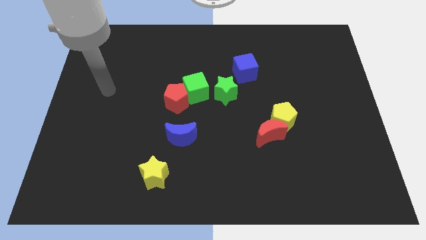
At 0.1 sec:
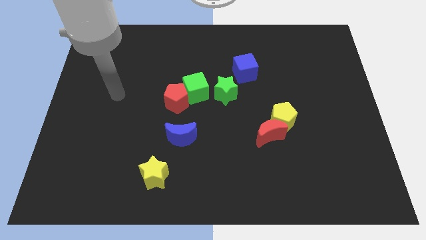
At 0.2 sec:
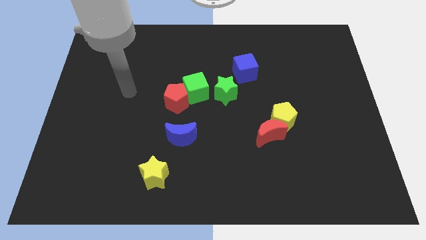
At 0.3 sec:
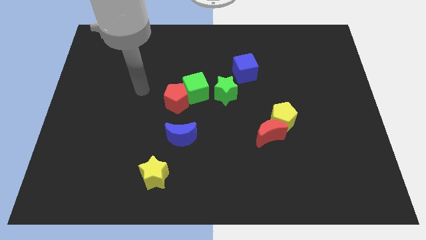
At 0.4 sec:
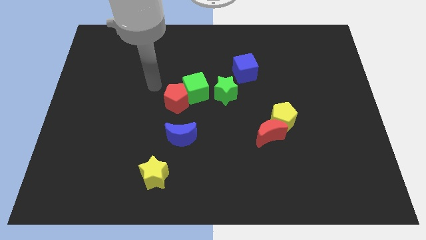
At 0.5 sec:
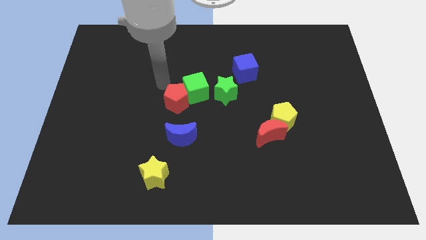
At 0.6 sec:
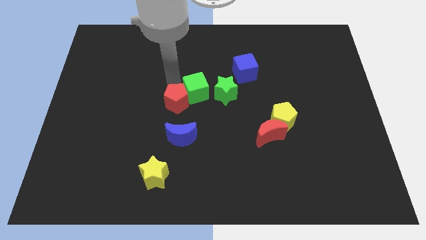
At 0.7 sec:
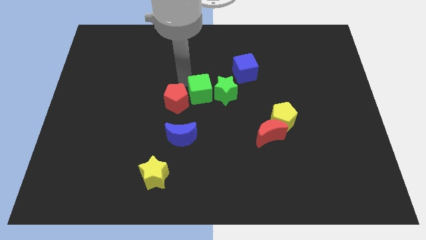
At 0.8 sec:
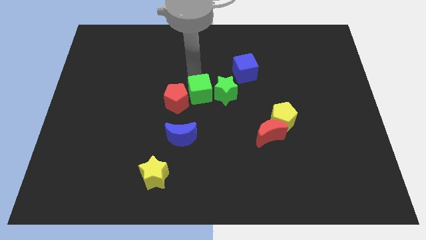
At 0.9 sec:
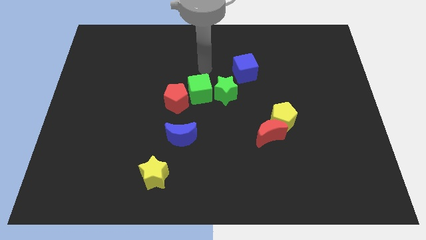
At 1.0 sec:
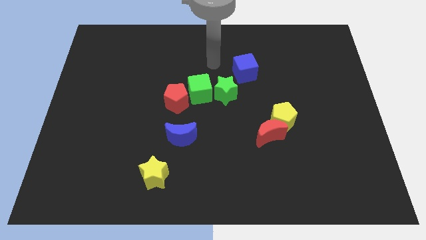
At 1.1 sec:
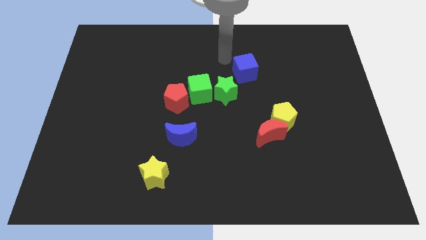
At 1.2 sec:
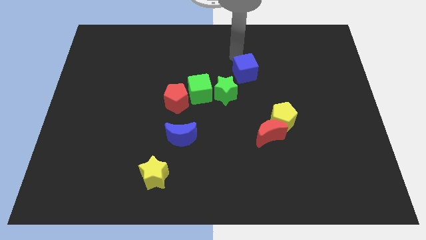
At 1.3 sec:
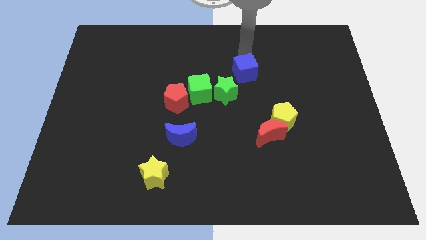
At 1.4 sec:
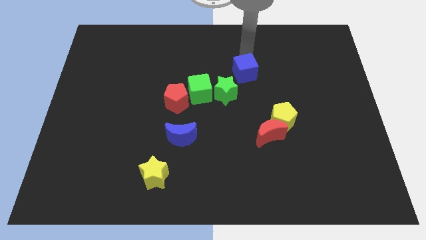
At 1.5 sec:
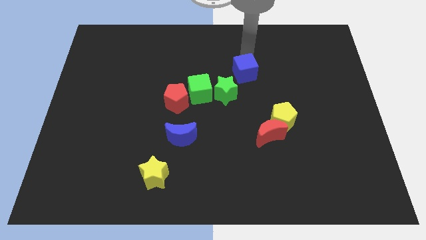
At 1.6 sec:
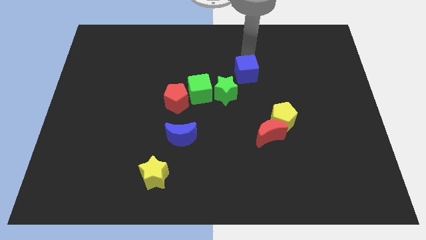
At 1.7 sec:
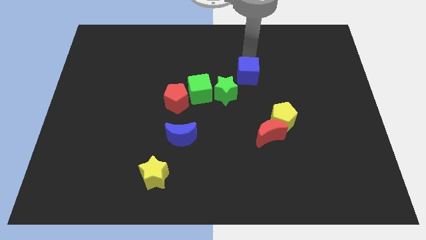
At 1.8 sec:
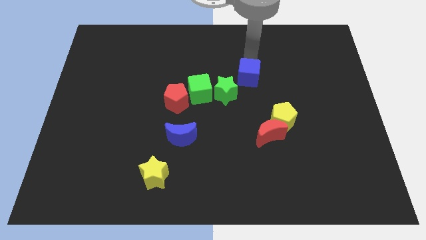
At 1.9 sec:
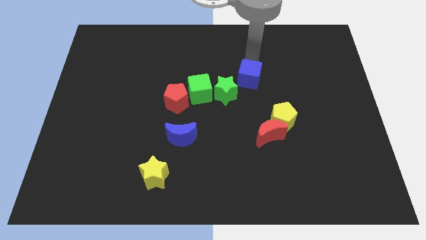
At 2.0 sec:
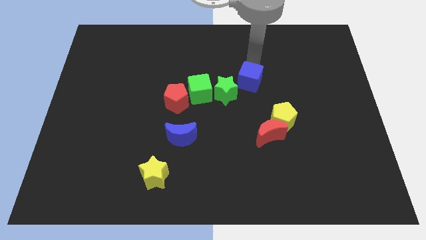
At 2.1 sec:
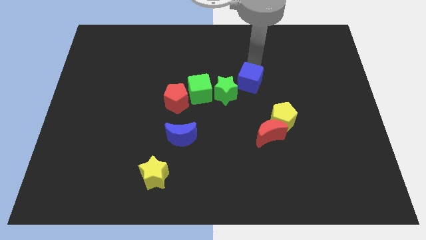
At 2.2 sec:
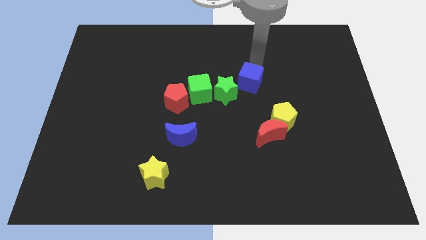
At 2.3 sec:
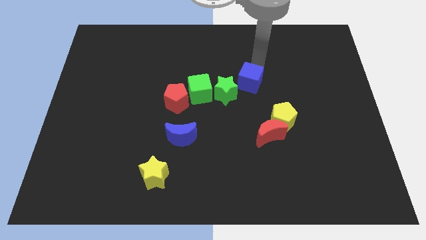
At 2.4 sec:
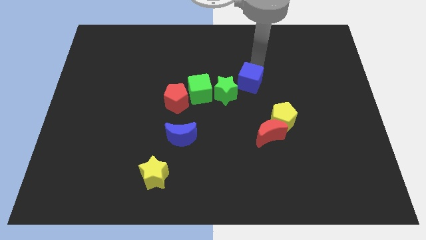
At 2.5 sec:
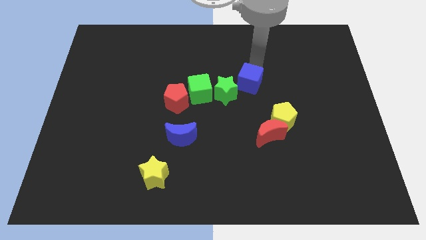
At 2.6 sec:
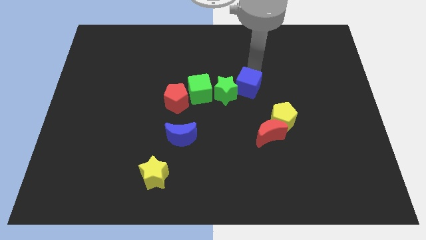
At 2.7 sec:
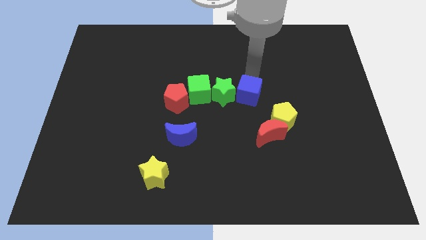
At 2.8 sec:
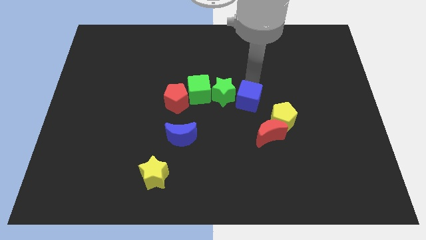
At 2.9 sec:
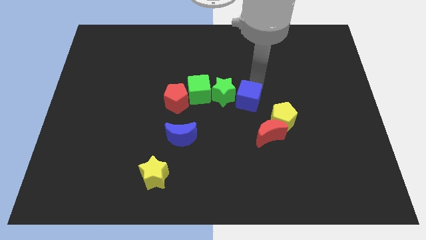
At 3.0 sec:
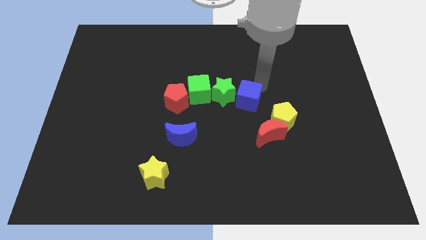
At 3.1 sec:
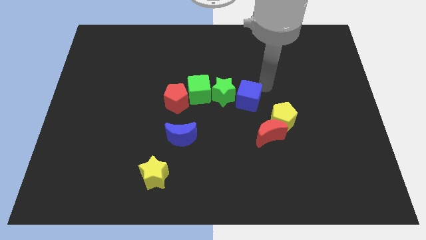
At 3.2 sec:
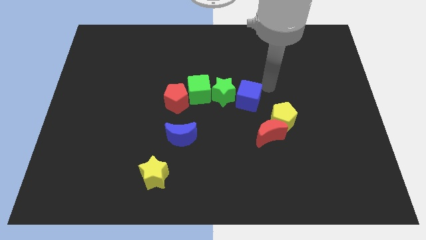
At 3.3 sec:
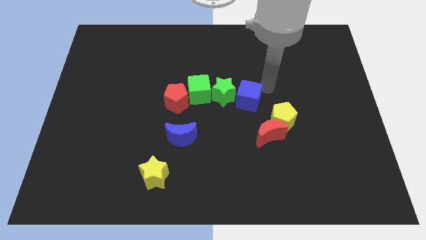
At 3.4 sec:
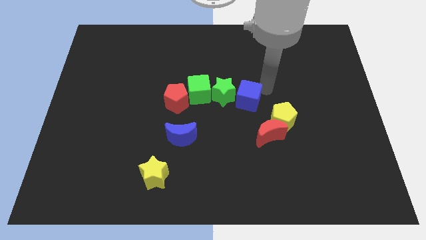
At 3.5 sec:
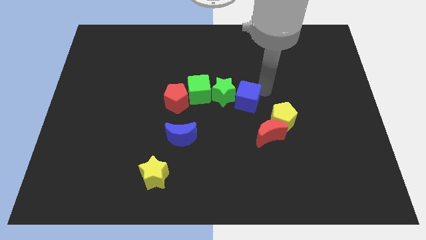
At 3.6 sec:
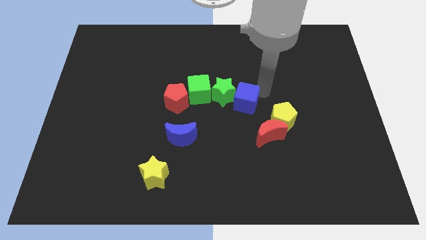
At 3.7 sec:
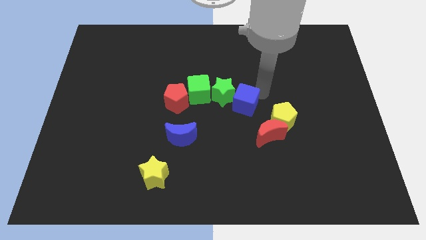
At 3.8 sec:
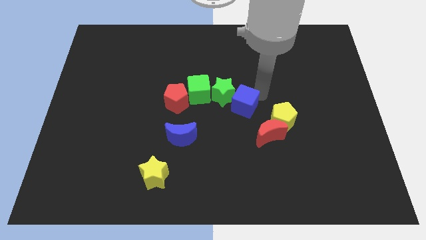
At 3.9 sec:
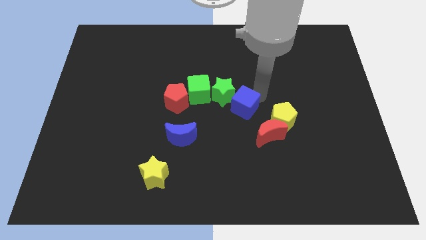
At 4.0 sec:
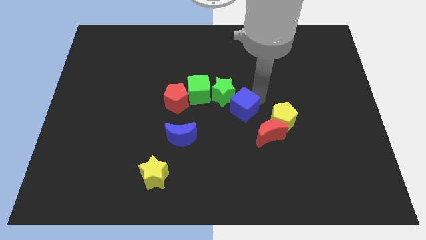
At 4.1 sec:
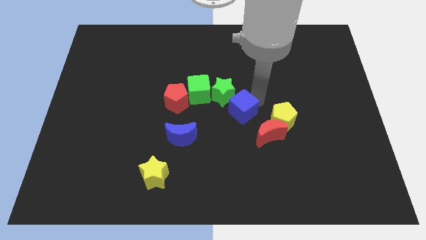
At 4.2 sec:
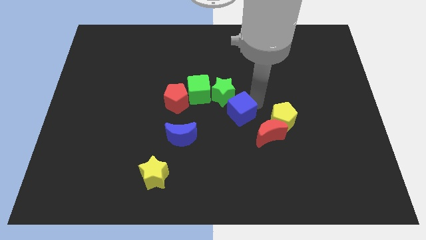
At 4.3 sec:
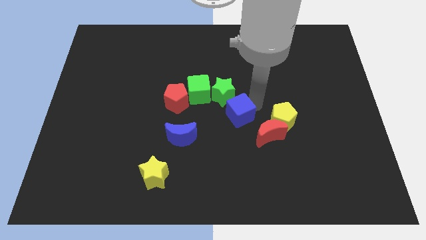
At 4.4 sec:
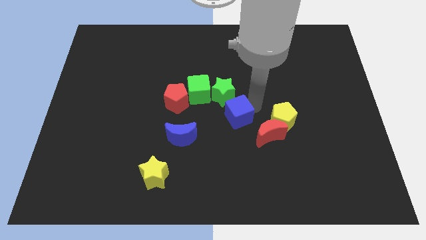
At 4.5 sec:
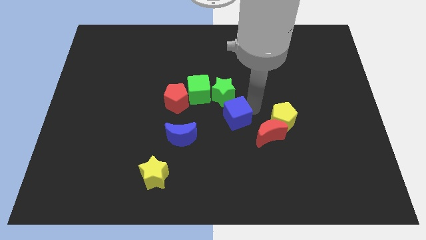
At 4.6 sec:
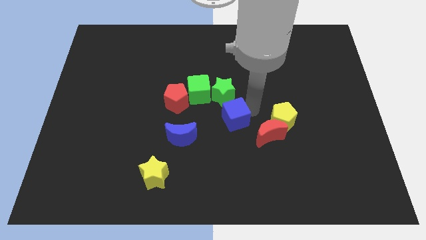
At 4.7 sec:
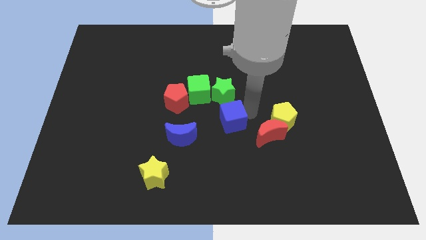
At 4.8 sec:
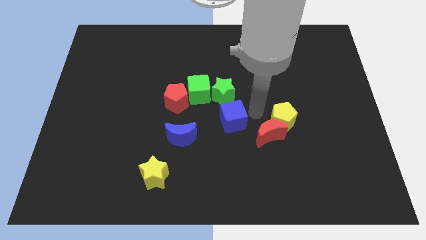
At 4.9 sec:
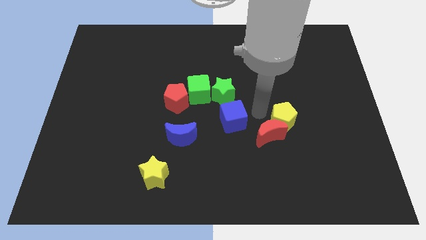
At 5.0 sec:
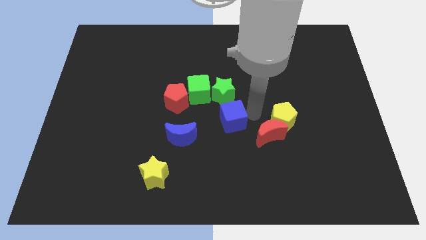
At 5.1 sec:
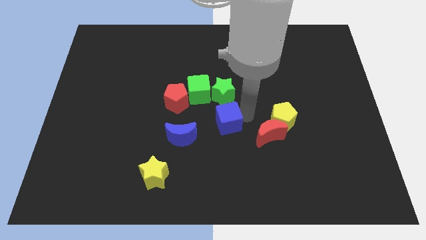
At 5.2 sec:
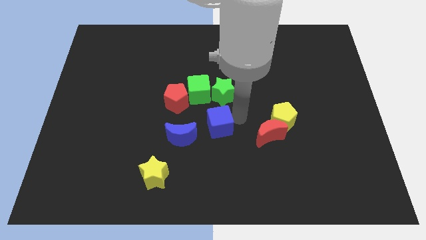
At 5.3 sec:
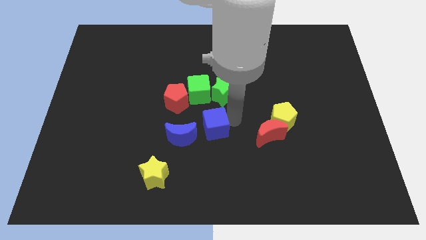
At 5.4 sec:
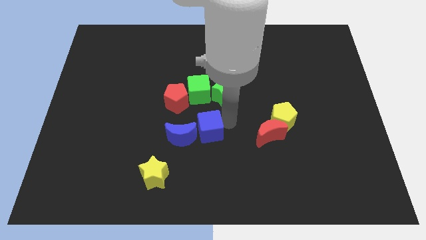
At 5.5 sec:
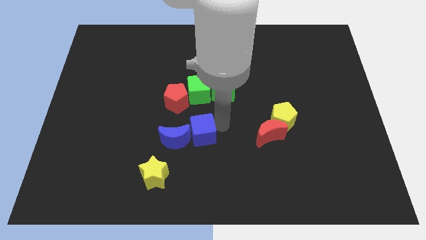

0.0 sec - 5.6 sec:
slide the blue cube close to the blue moon
